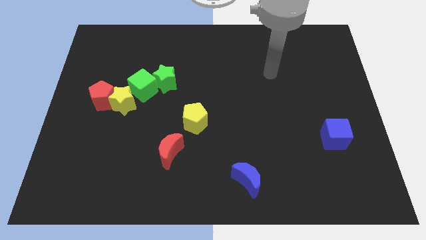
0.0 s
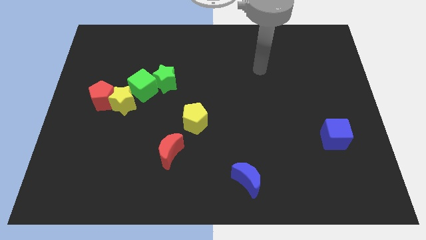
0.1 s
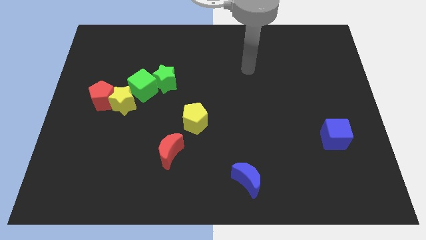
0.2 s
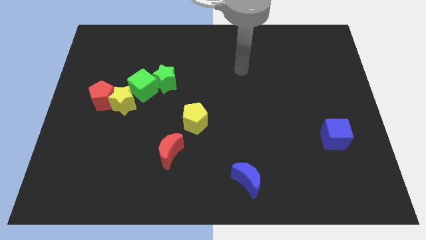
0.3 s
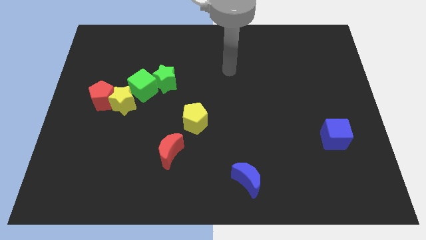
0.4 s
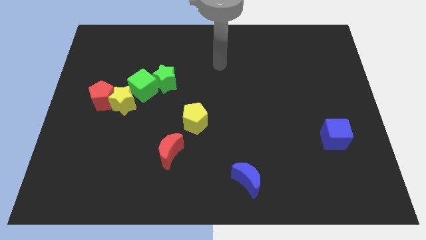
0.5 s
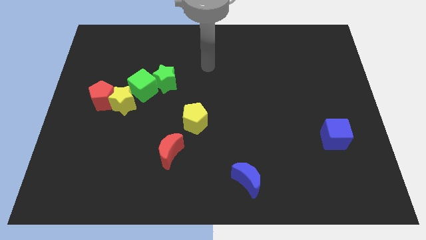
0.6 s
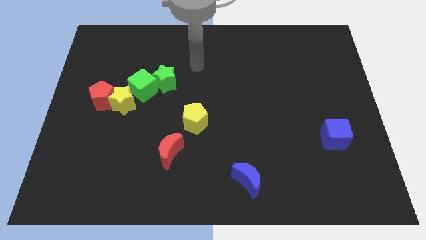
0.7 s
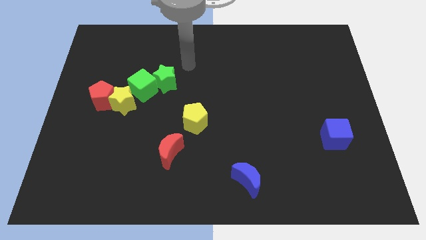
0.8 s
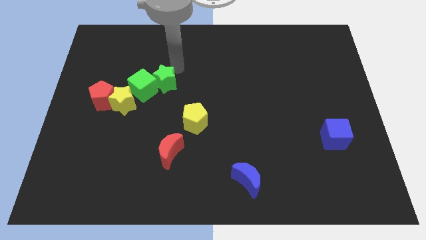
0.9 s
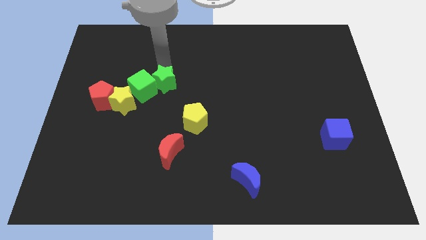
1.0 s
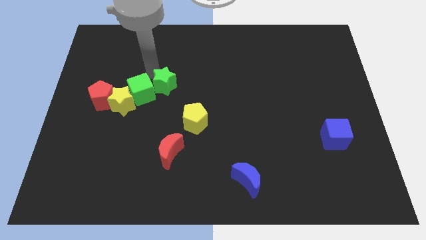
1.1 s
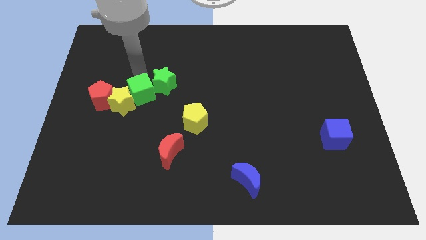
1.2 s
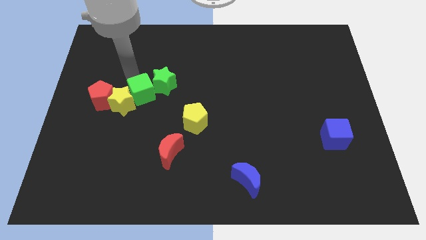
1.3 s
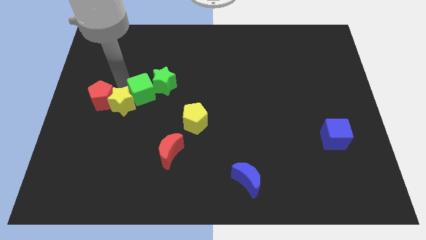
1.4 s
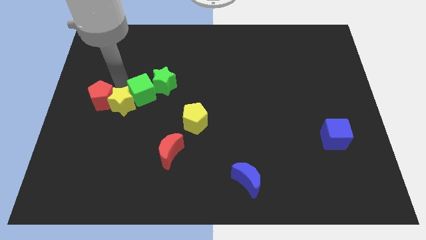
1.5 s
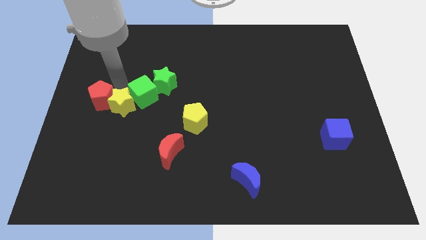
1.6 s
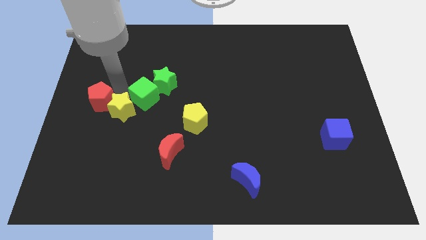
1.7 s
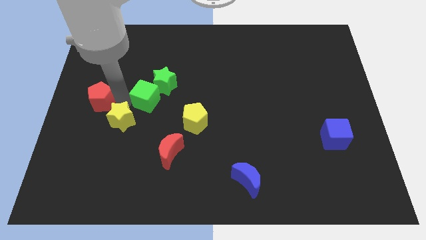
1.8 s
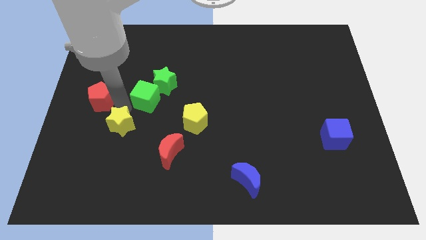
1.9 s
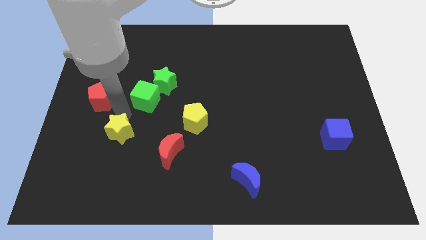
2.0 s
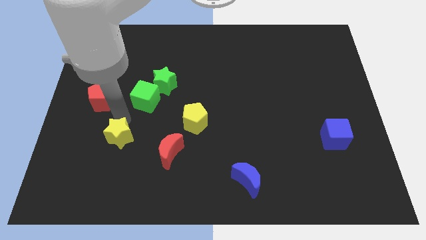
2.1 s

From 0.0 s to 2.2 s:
separate the yellow star from the red pentagon and green cube

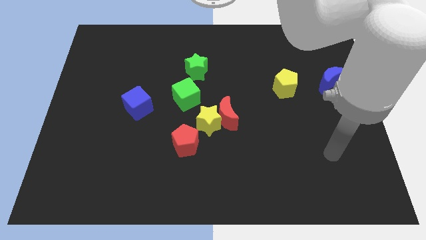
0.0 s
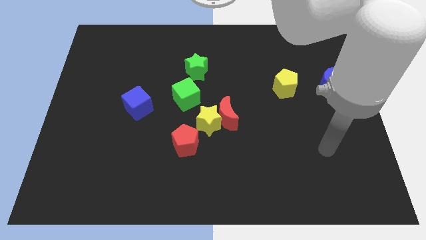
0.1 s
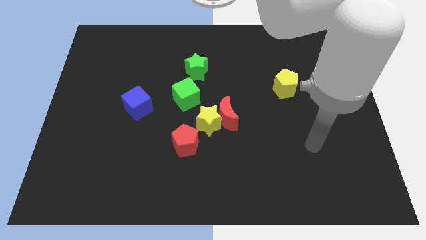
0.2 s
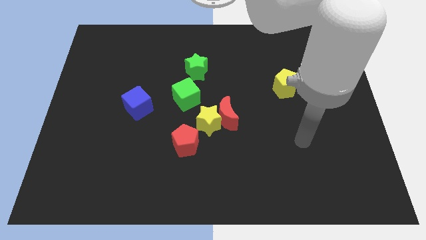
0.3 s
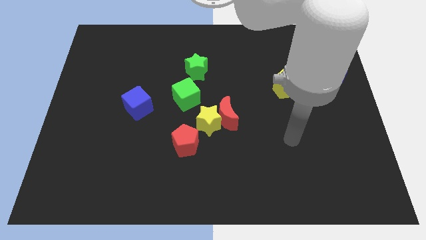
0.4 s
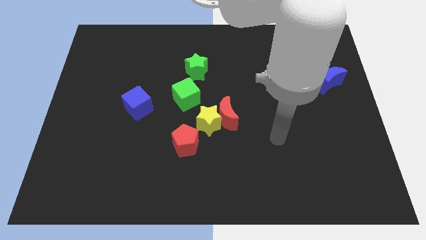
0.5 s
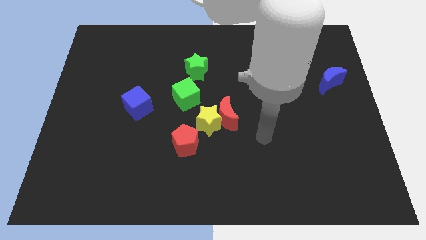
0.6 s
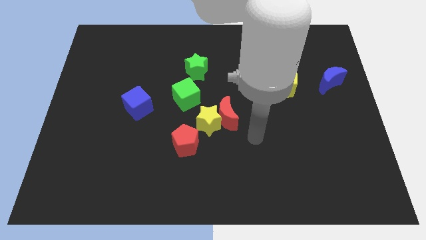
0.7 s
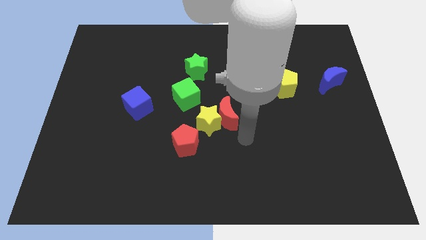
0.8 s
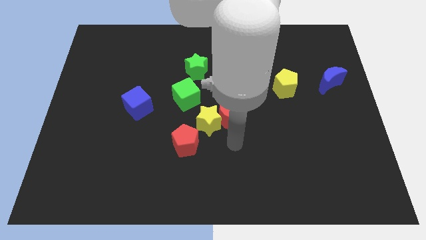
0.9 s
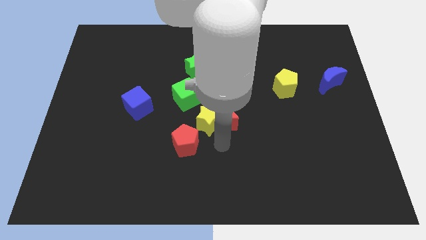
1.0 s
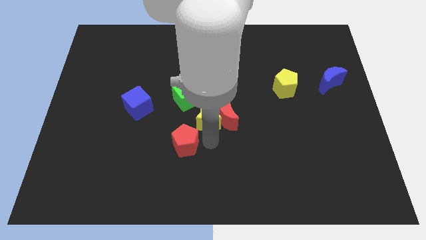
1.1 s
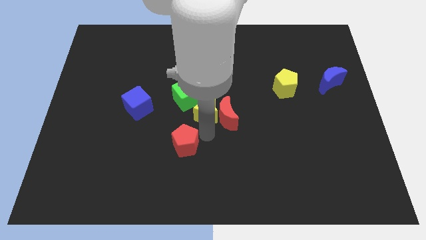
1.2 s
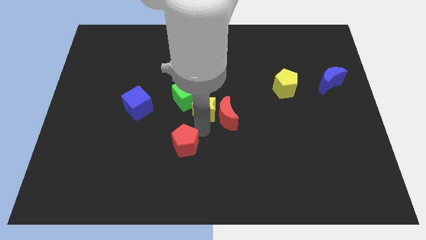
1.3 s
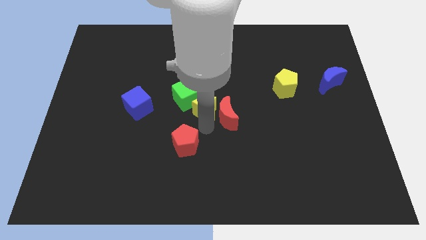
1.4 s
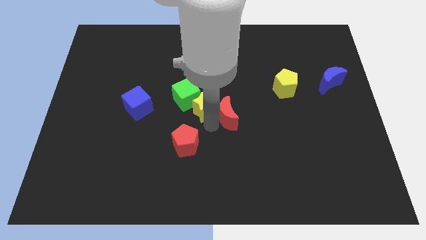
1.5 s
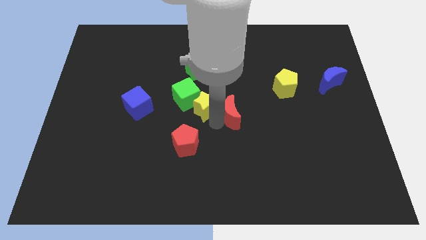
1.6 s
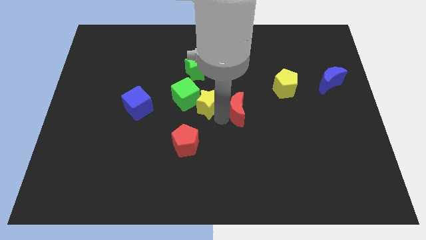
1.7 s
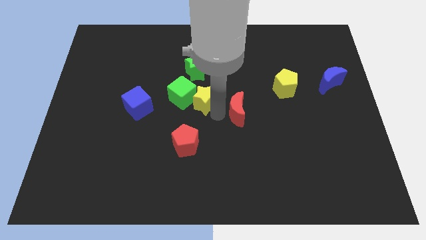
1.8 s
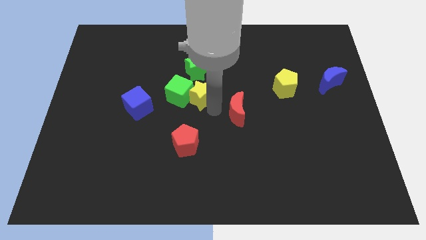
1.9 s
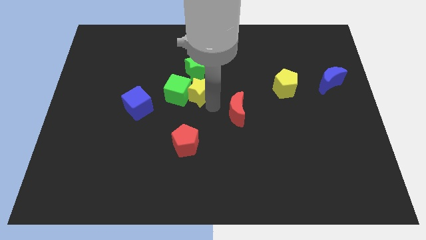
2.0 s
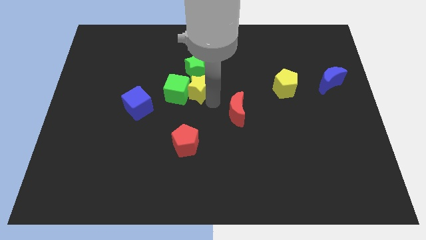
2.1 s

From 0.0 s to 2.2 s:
separate the red moon from the yellow star

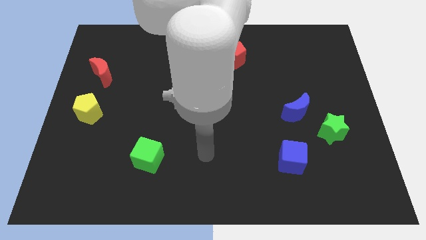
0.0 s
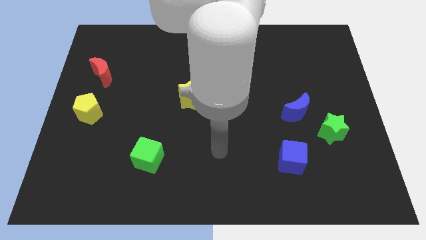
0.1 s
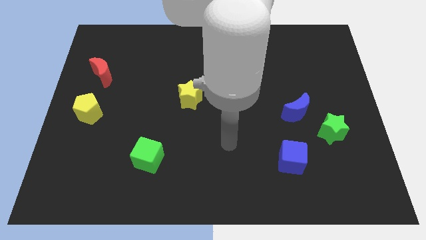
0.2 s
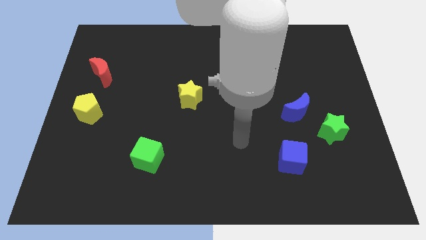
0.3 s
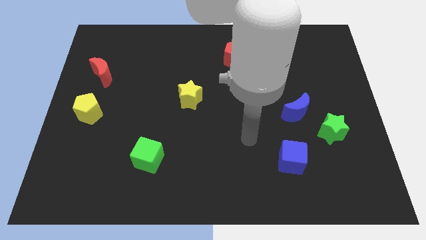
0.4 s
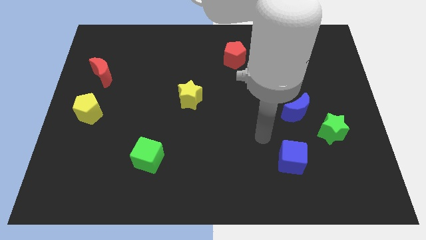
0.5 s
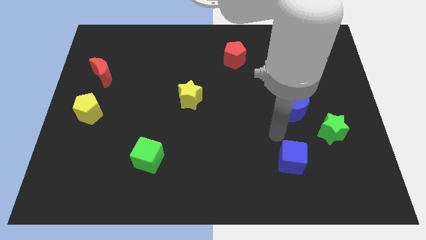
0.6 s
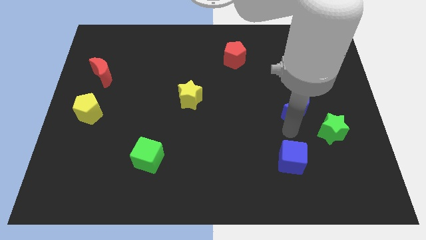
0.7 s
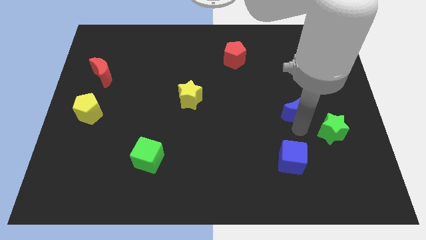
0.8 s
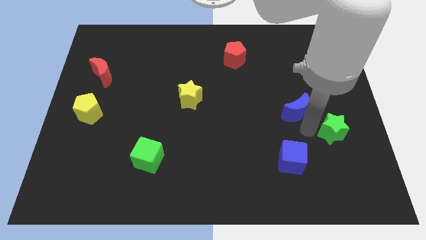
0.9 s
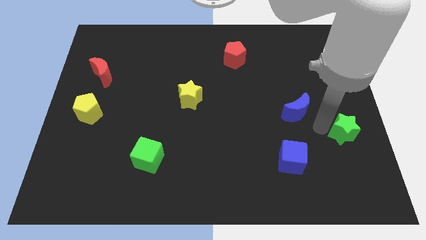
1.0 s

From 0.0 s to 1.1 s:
pull the blue moon apart from the green star

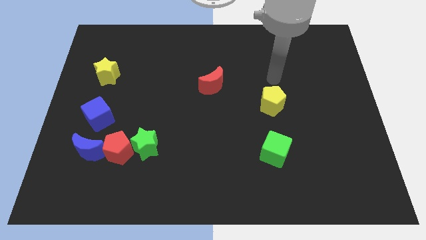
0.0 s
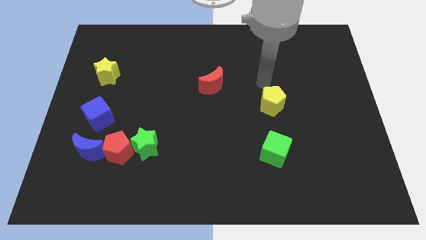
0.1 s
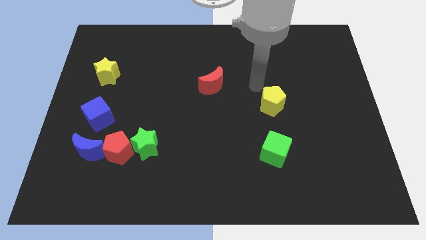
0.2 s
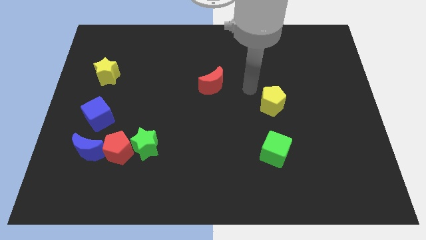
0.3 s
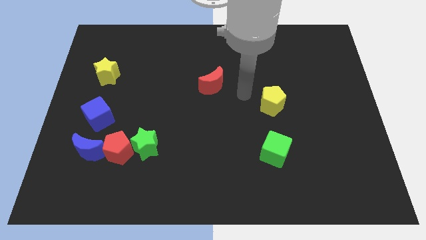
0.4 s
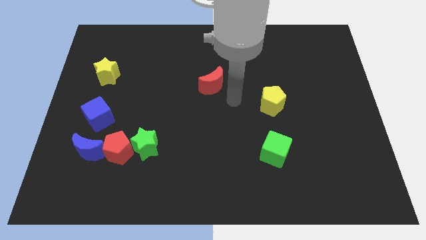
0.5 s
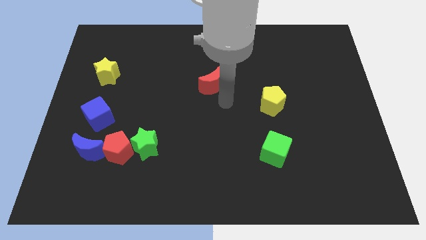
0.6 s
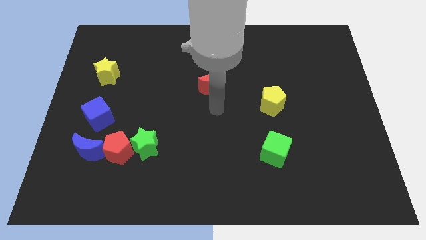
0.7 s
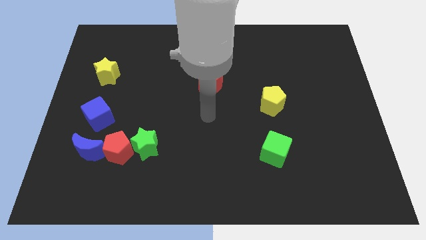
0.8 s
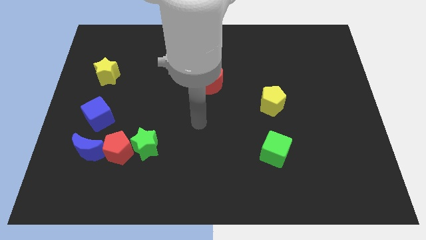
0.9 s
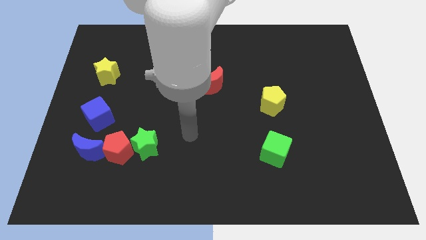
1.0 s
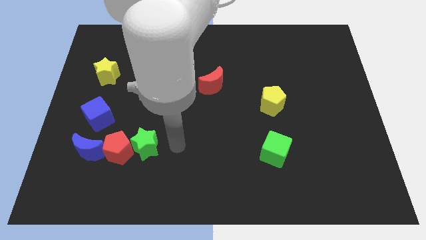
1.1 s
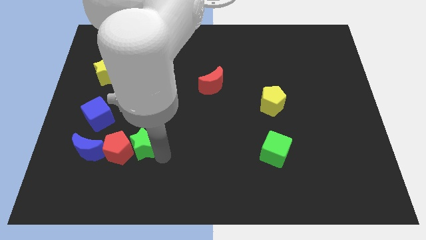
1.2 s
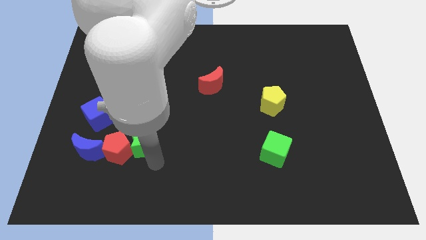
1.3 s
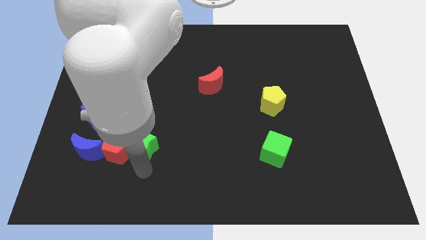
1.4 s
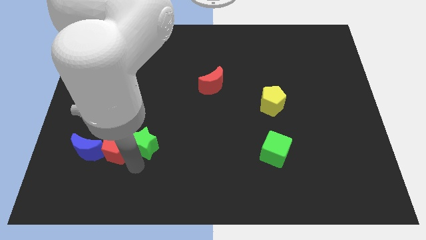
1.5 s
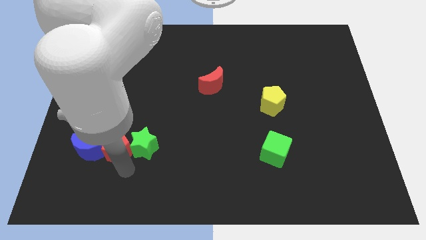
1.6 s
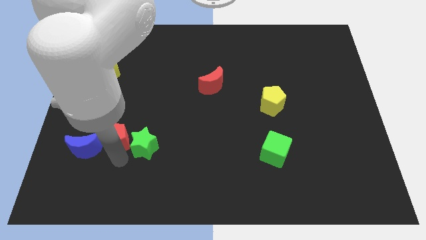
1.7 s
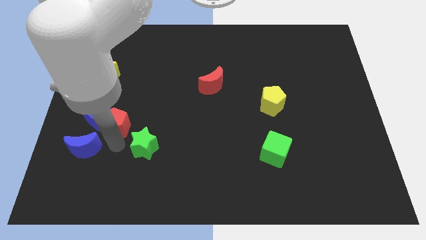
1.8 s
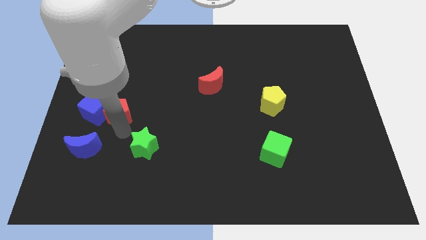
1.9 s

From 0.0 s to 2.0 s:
move the green star away from the red pentagon

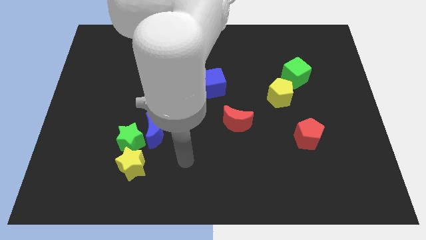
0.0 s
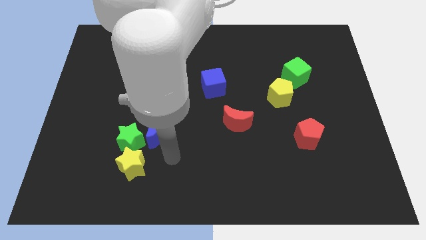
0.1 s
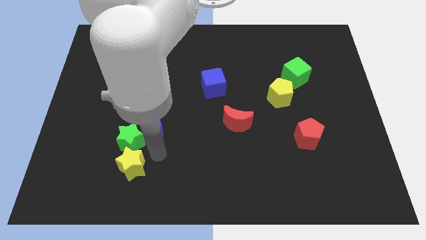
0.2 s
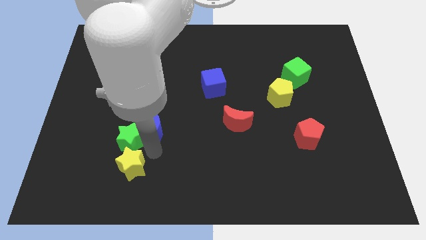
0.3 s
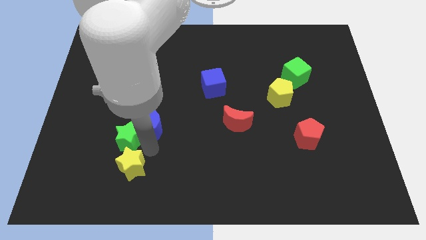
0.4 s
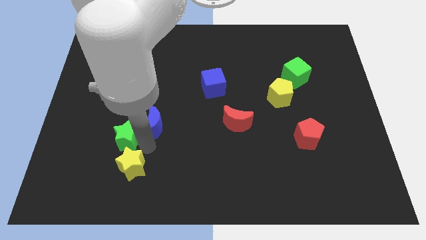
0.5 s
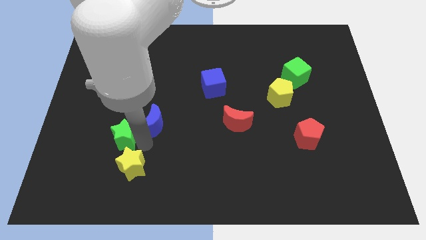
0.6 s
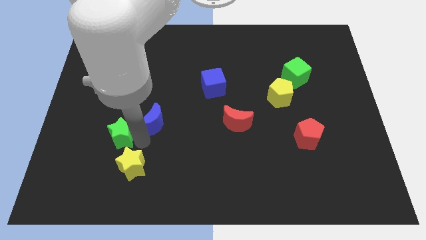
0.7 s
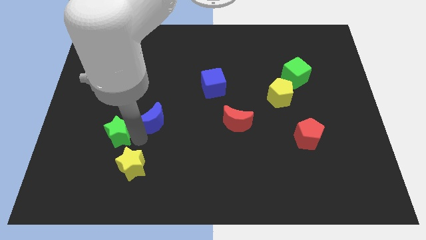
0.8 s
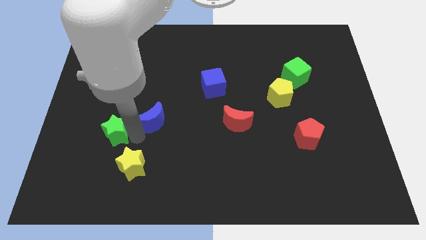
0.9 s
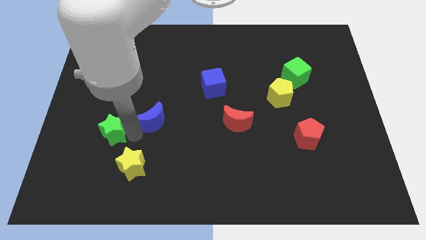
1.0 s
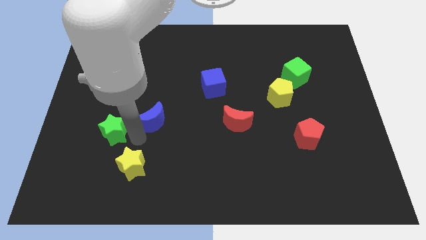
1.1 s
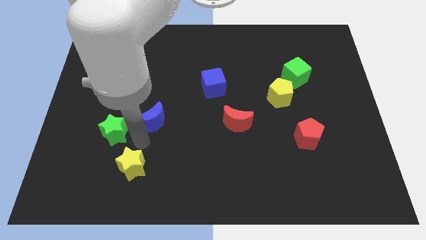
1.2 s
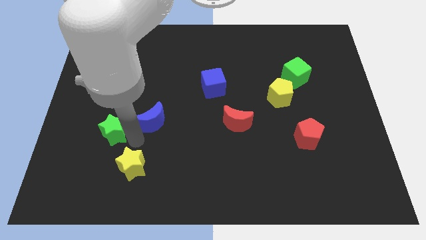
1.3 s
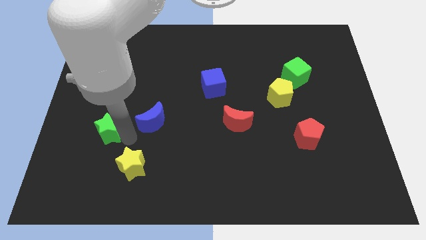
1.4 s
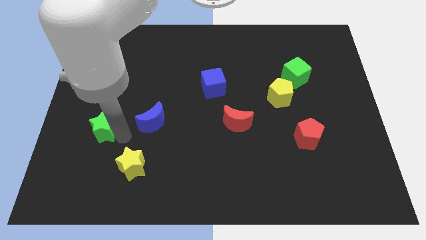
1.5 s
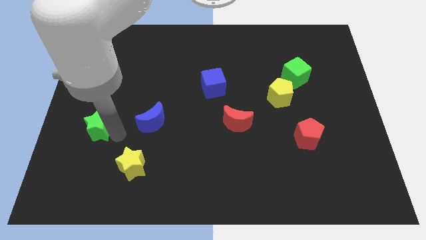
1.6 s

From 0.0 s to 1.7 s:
separate the green star from the blue moon and yellow star

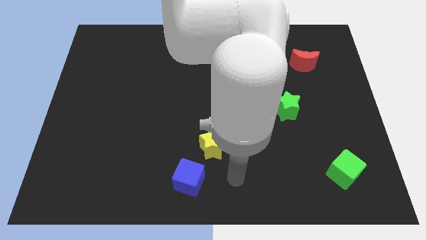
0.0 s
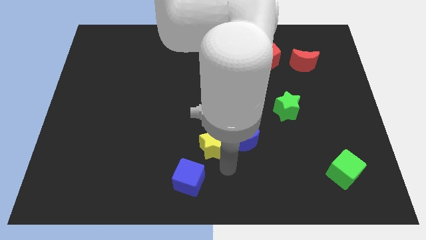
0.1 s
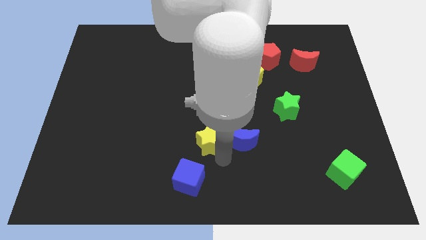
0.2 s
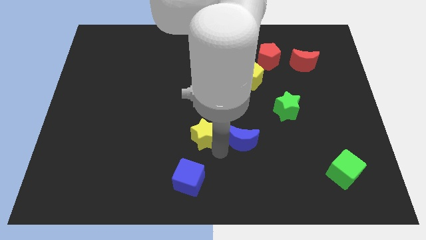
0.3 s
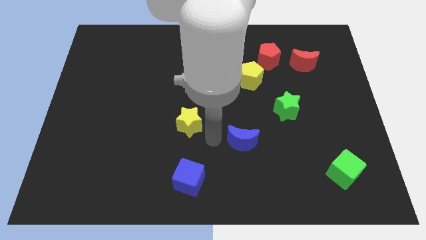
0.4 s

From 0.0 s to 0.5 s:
pull the blue moon apart from the yellow star
